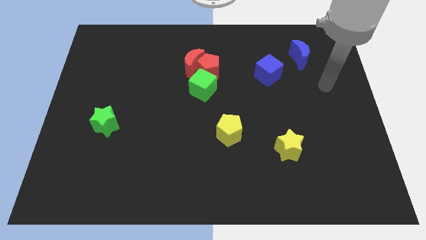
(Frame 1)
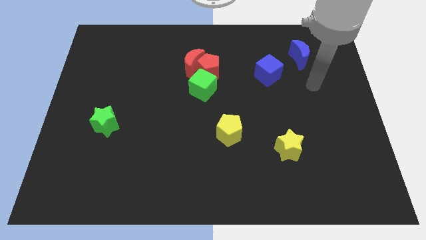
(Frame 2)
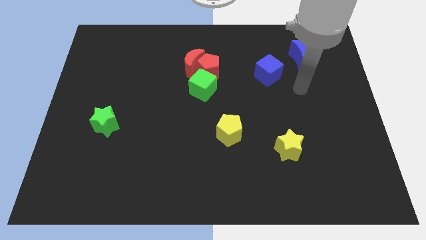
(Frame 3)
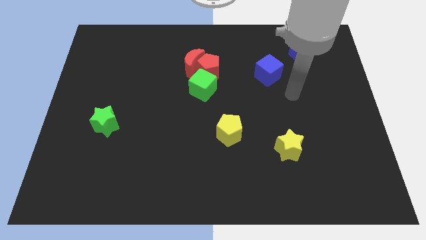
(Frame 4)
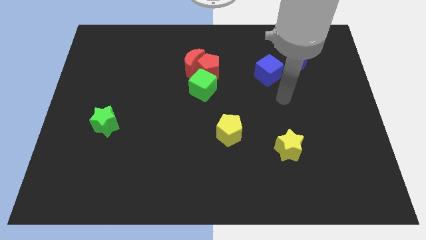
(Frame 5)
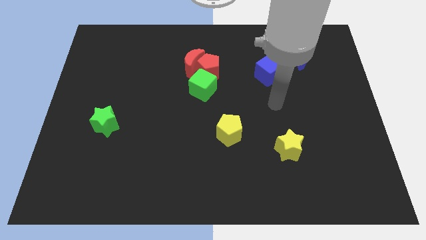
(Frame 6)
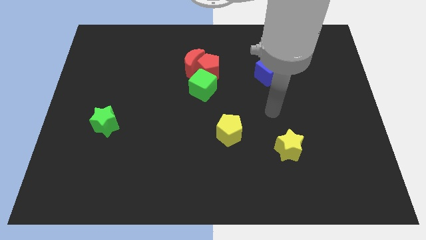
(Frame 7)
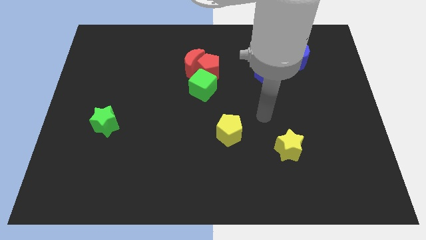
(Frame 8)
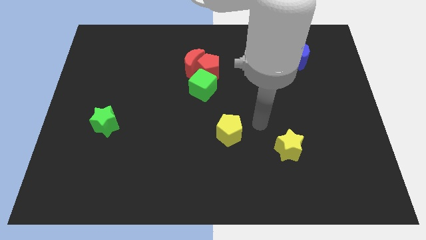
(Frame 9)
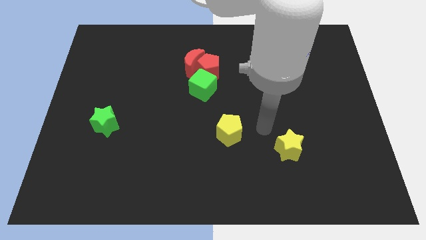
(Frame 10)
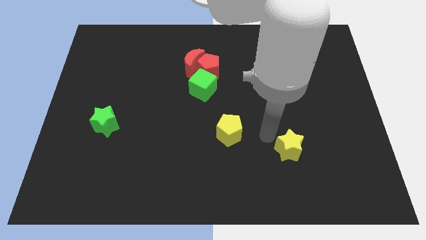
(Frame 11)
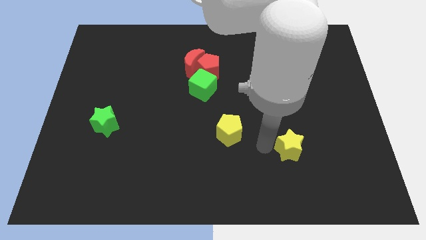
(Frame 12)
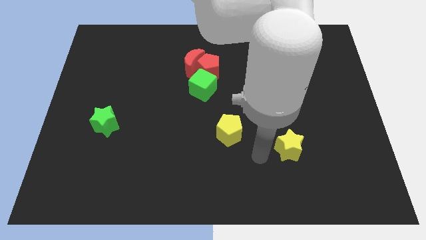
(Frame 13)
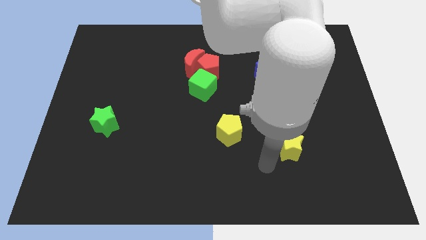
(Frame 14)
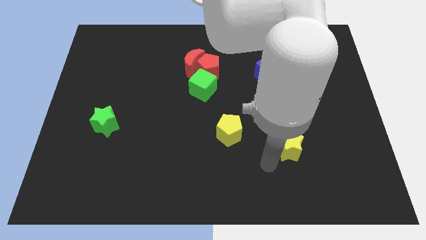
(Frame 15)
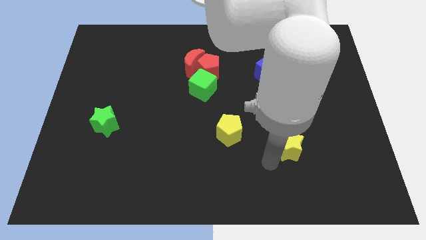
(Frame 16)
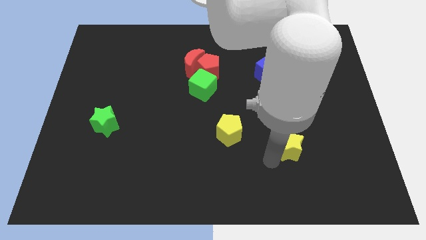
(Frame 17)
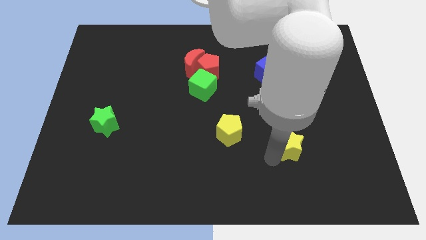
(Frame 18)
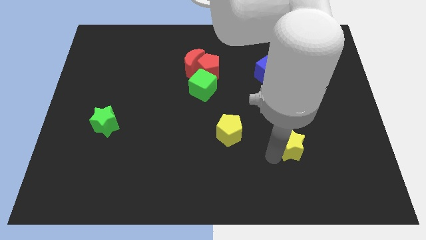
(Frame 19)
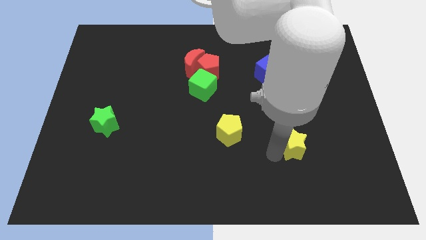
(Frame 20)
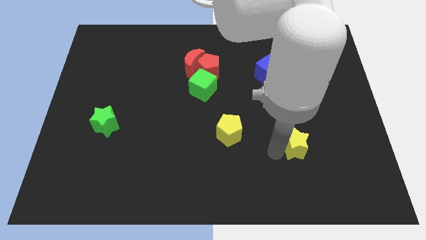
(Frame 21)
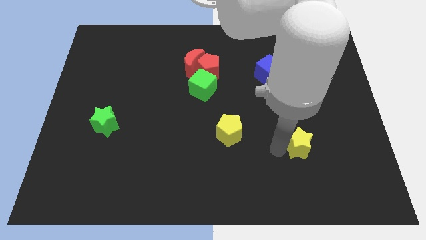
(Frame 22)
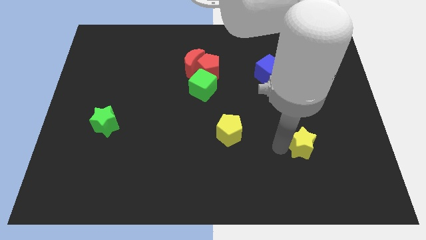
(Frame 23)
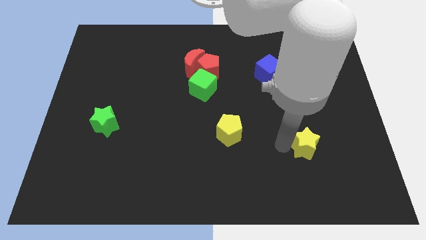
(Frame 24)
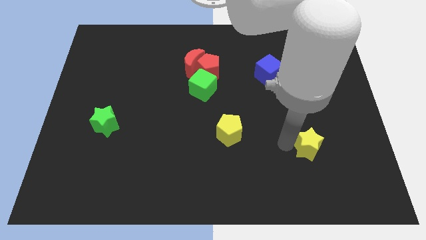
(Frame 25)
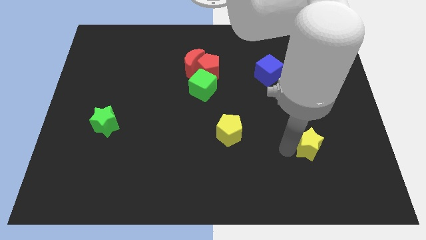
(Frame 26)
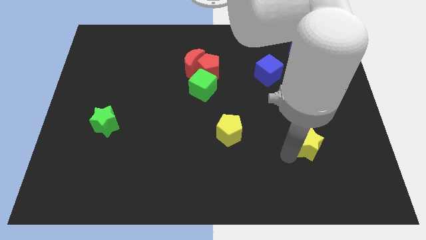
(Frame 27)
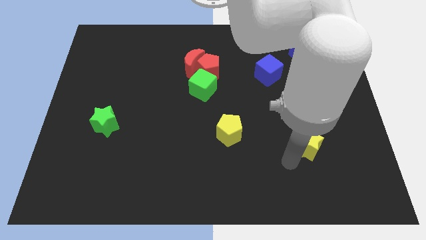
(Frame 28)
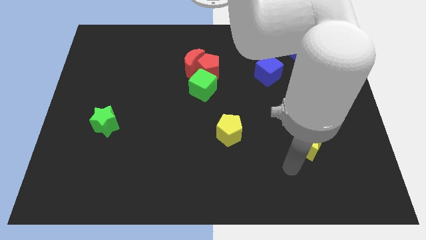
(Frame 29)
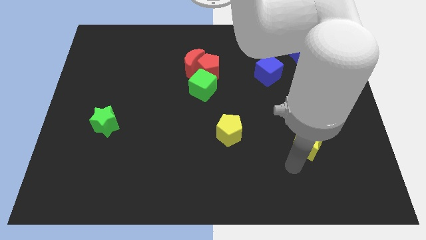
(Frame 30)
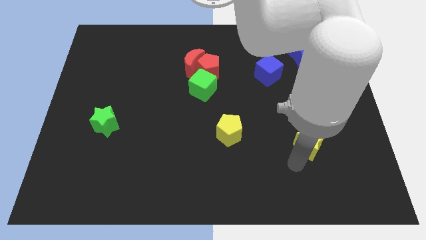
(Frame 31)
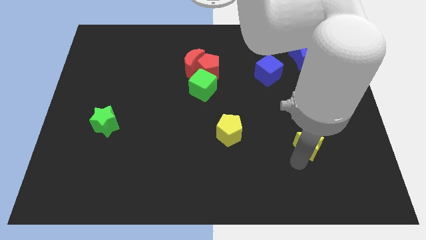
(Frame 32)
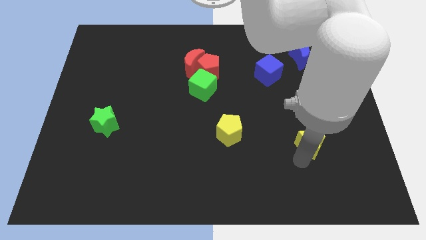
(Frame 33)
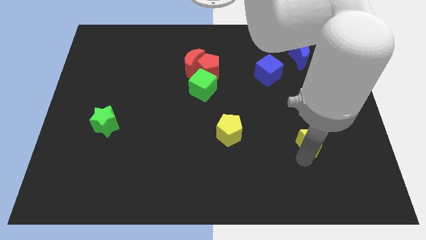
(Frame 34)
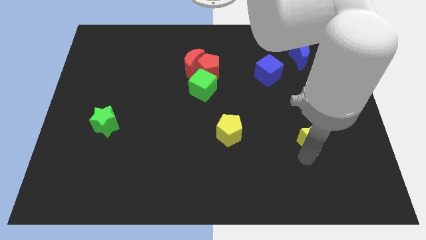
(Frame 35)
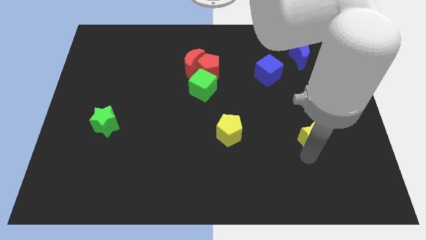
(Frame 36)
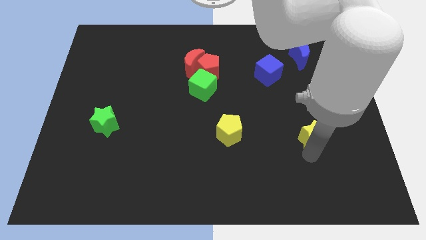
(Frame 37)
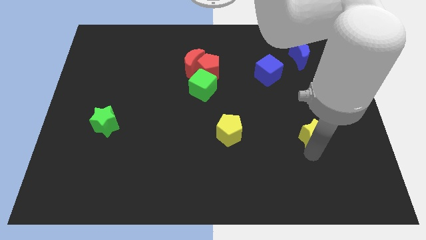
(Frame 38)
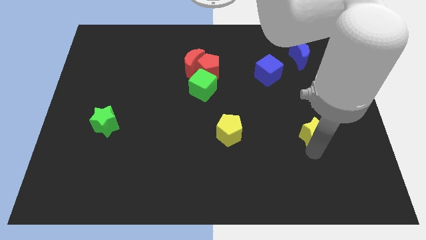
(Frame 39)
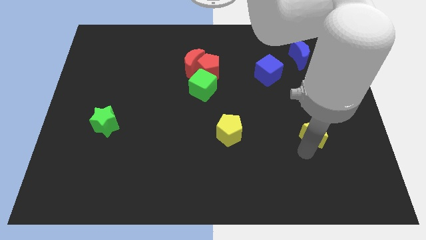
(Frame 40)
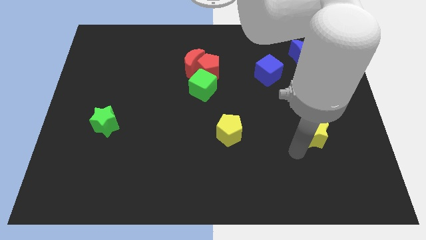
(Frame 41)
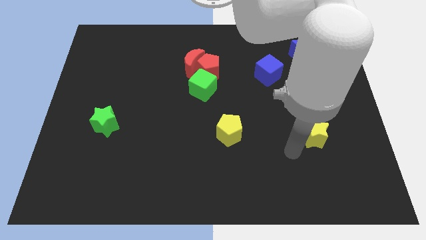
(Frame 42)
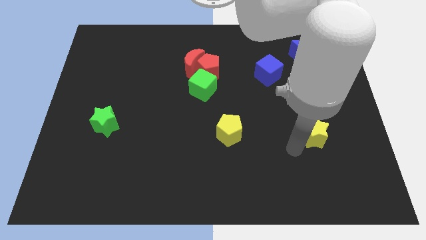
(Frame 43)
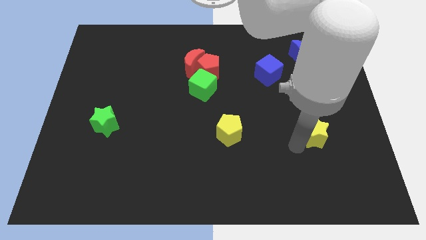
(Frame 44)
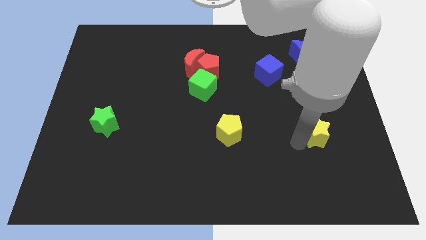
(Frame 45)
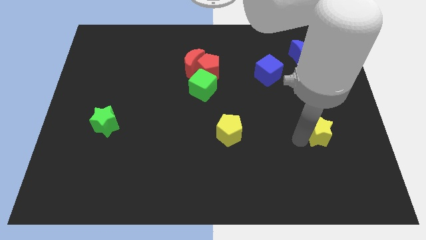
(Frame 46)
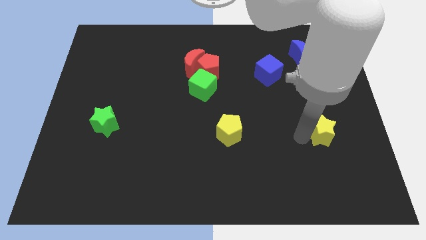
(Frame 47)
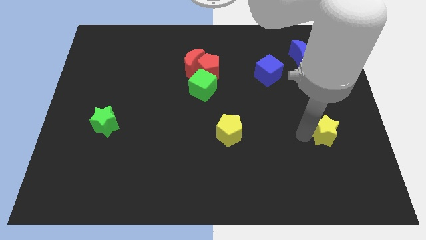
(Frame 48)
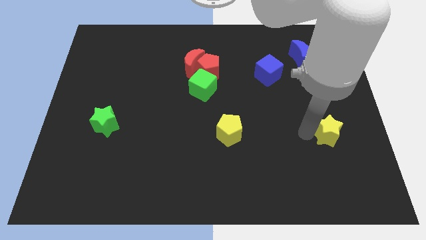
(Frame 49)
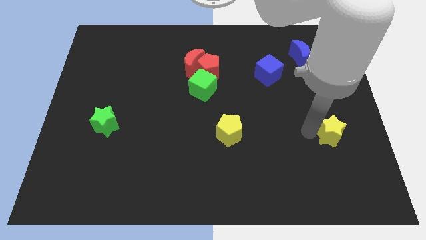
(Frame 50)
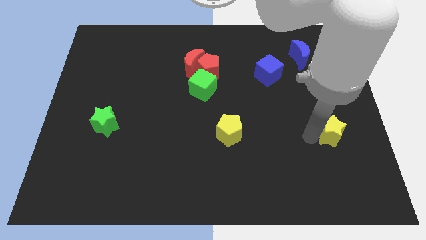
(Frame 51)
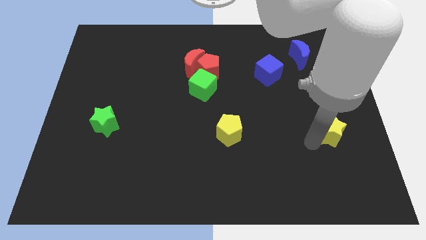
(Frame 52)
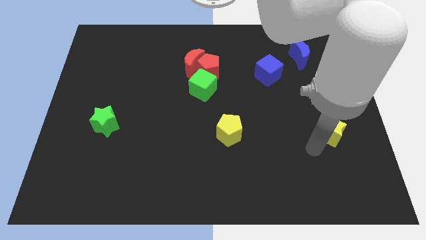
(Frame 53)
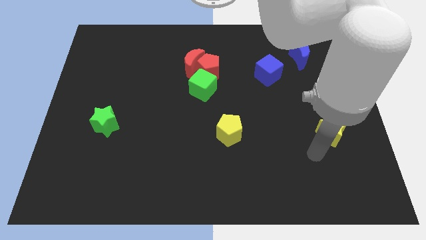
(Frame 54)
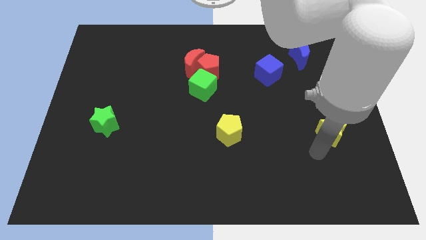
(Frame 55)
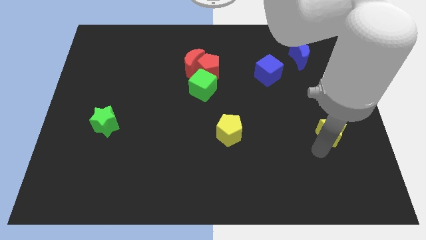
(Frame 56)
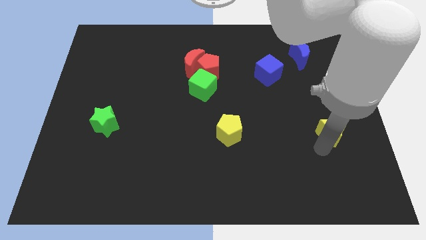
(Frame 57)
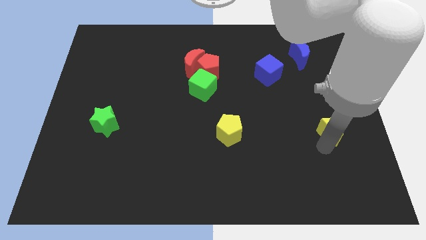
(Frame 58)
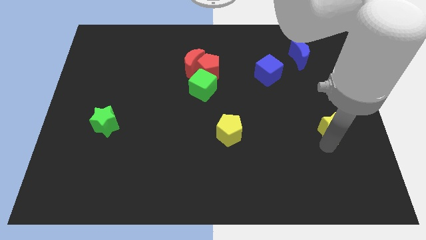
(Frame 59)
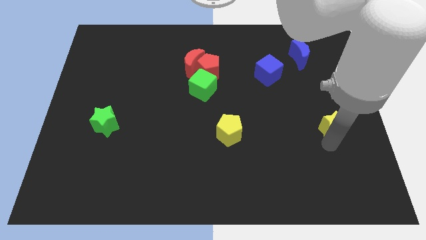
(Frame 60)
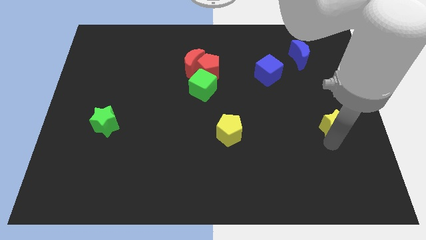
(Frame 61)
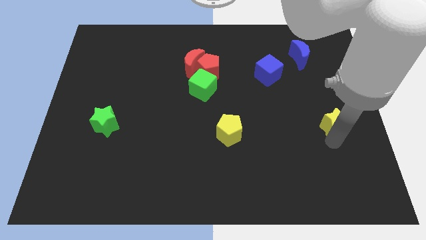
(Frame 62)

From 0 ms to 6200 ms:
push the yellow star to the right side
